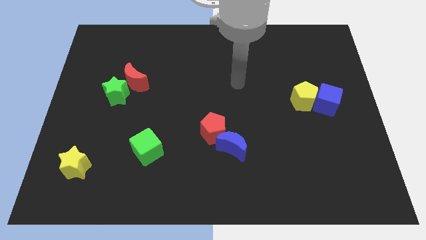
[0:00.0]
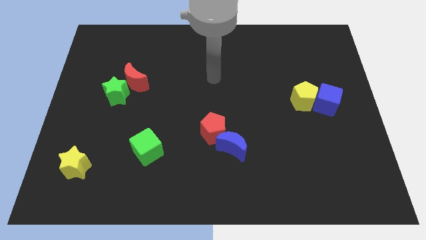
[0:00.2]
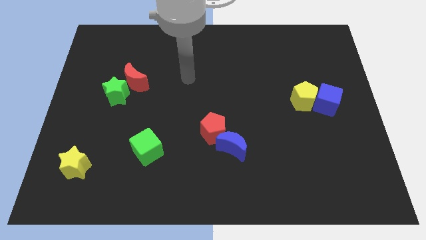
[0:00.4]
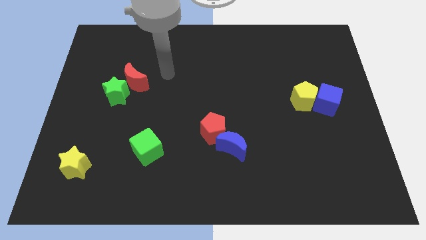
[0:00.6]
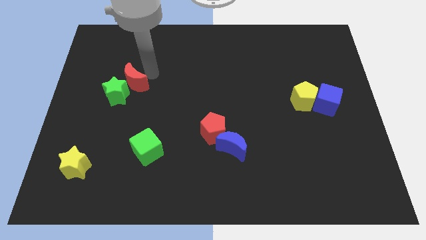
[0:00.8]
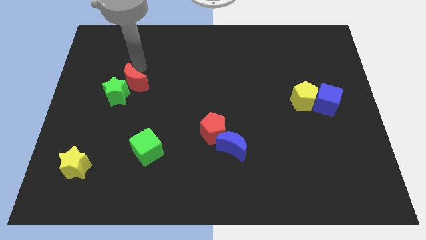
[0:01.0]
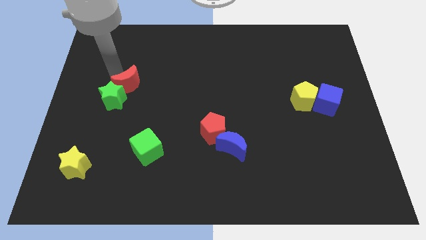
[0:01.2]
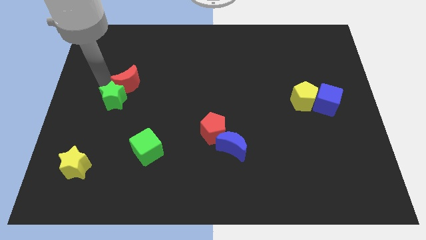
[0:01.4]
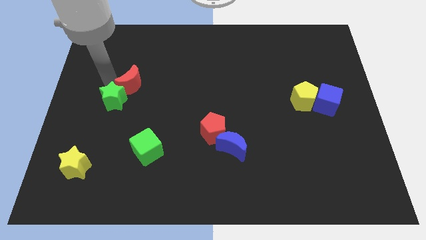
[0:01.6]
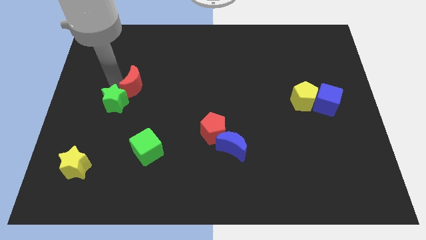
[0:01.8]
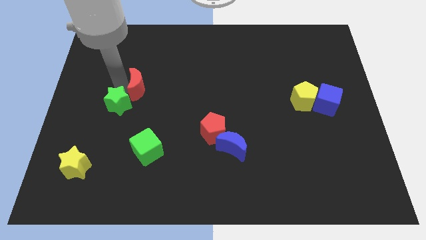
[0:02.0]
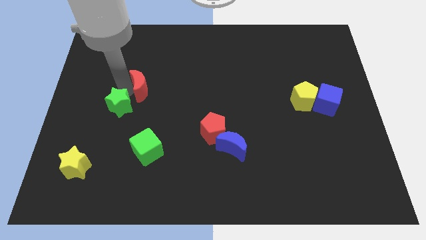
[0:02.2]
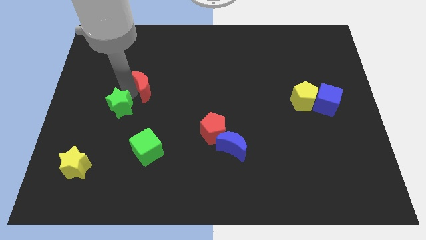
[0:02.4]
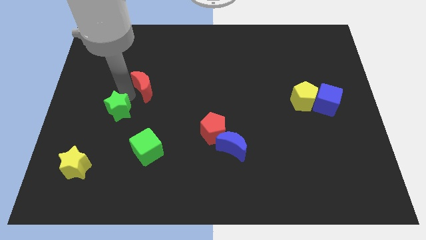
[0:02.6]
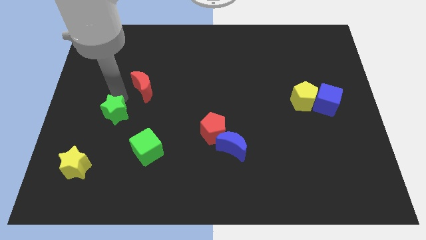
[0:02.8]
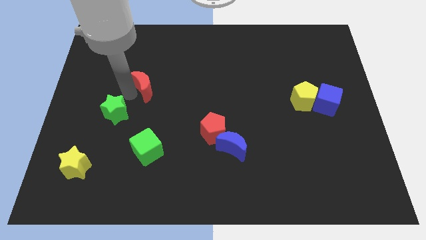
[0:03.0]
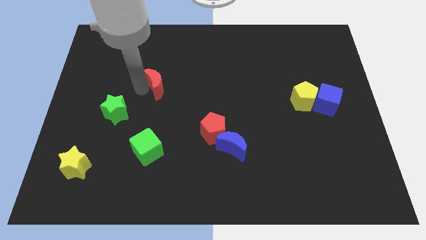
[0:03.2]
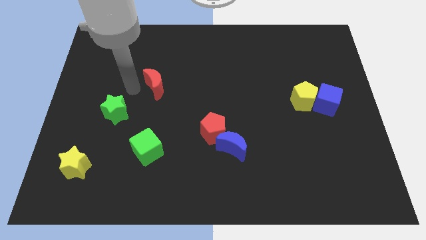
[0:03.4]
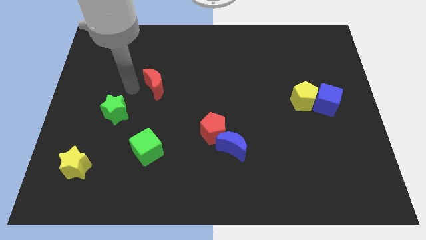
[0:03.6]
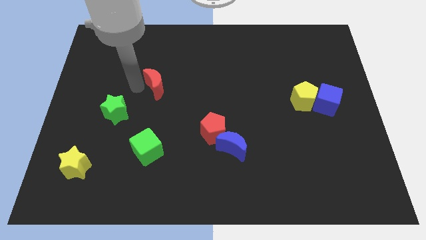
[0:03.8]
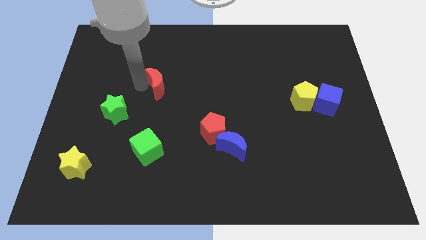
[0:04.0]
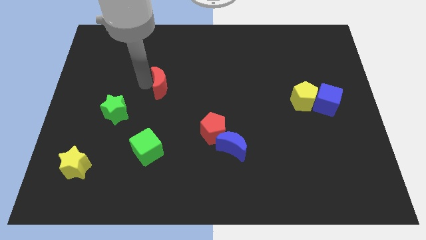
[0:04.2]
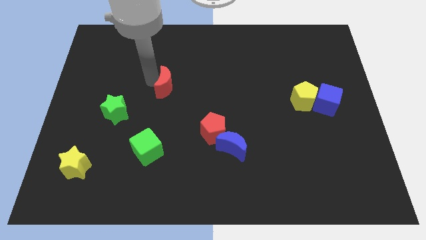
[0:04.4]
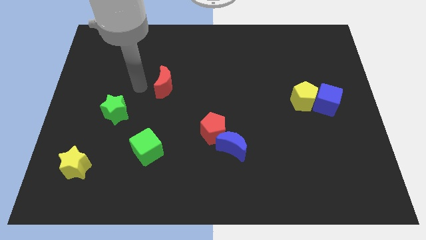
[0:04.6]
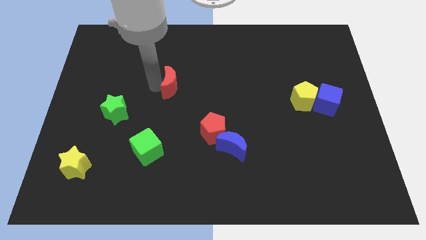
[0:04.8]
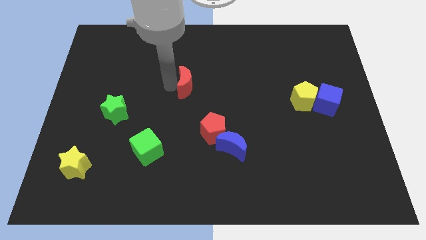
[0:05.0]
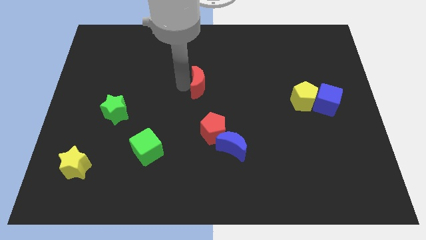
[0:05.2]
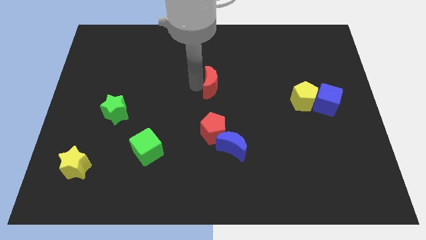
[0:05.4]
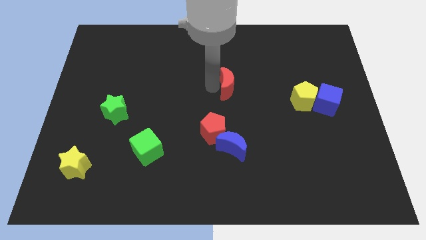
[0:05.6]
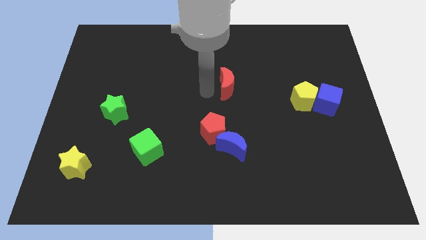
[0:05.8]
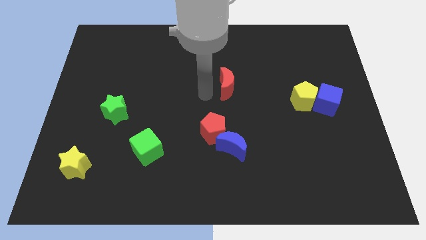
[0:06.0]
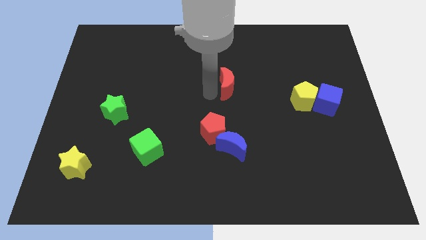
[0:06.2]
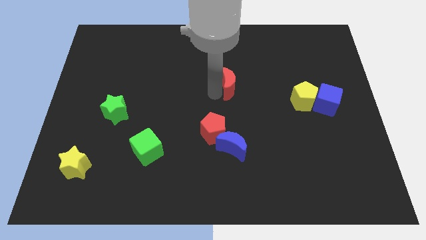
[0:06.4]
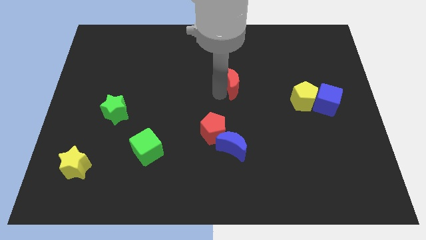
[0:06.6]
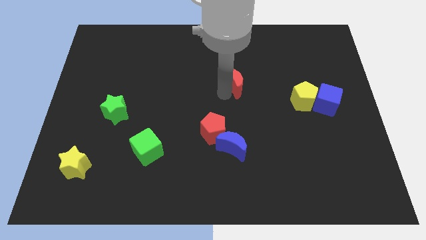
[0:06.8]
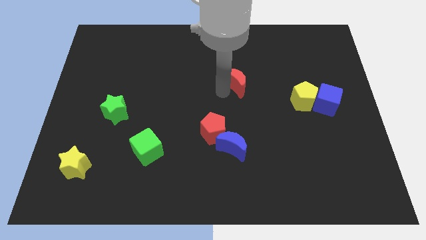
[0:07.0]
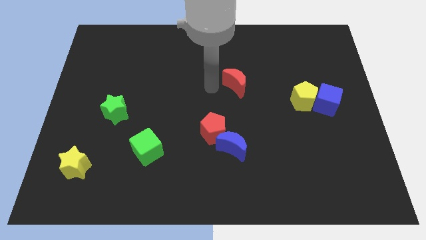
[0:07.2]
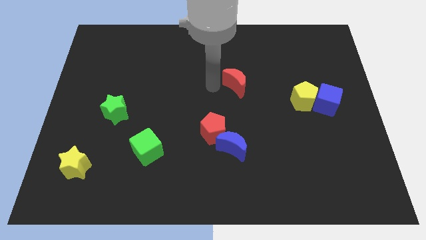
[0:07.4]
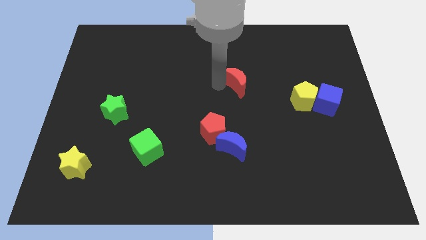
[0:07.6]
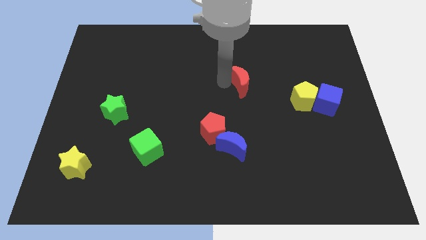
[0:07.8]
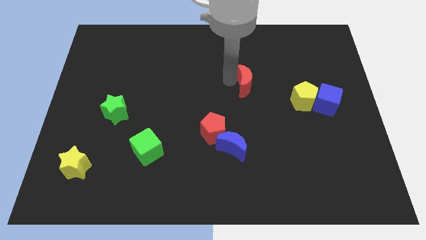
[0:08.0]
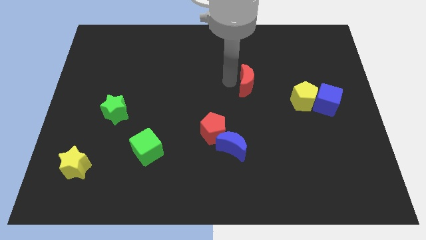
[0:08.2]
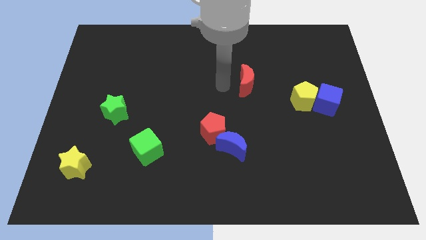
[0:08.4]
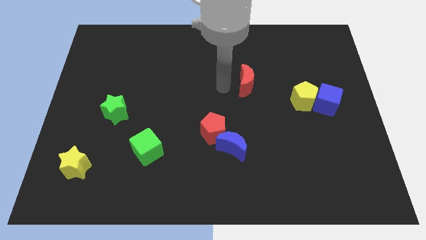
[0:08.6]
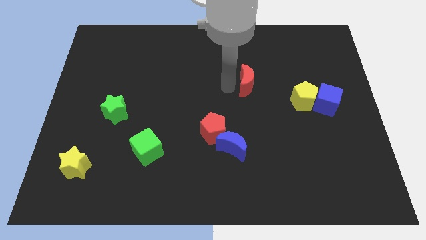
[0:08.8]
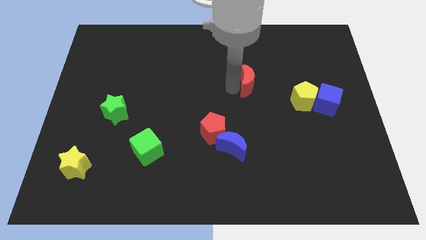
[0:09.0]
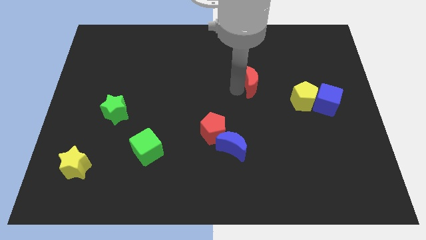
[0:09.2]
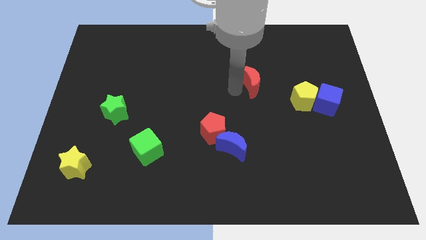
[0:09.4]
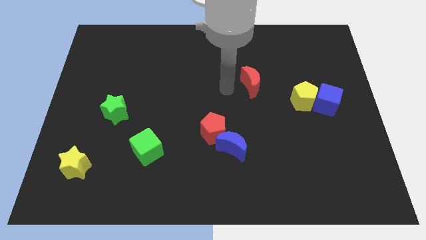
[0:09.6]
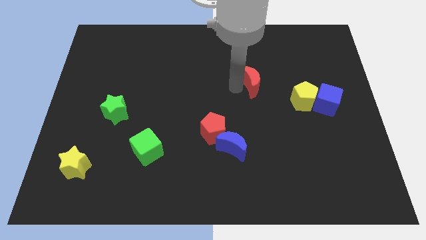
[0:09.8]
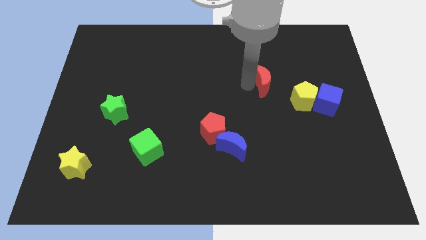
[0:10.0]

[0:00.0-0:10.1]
put the red moon to the top left side of the yellow pentagon

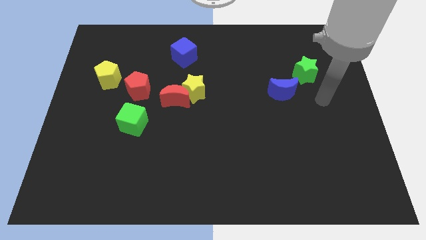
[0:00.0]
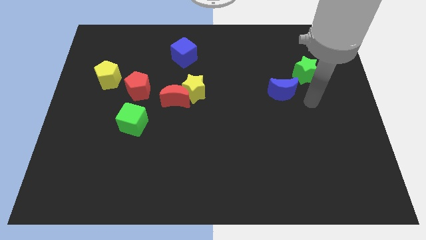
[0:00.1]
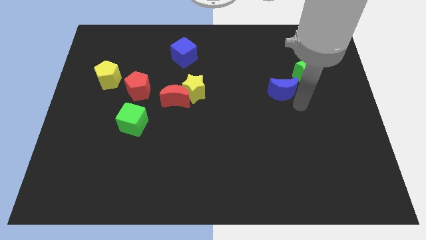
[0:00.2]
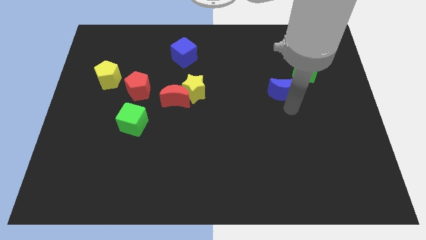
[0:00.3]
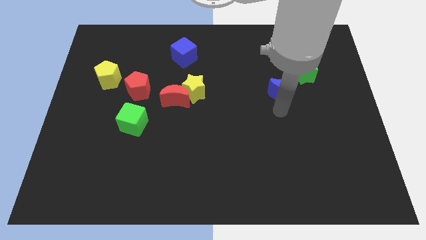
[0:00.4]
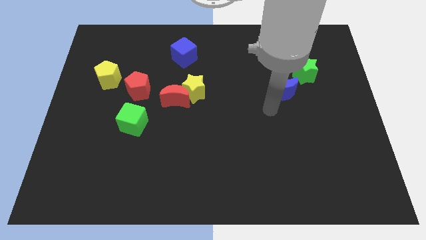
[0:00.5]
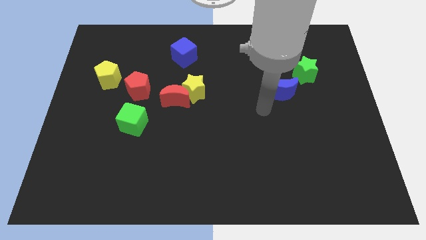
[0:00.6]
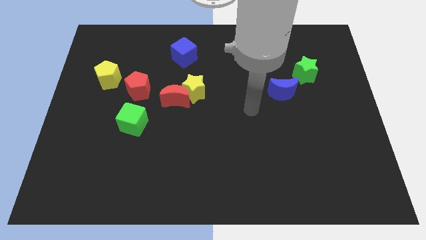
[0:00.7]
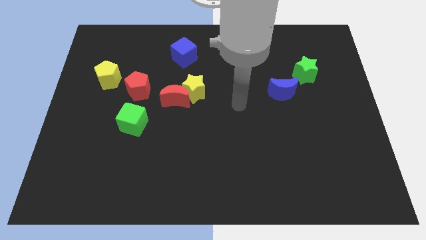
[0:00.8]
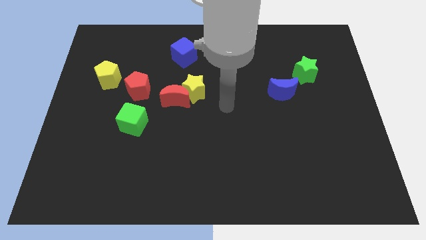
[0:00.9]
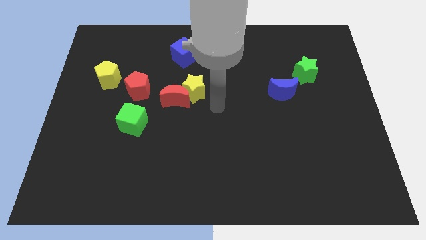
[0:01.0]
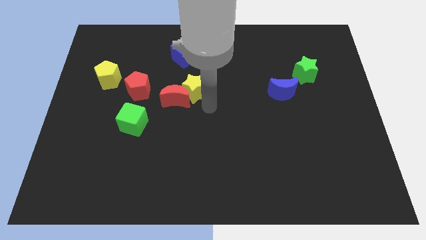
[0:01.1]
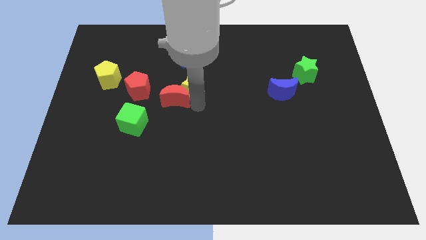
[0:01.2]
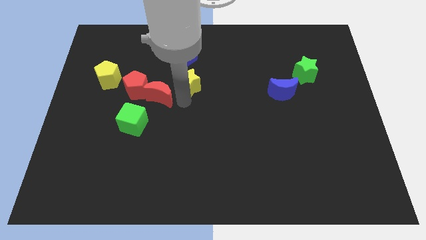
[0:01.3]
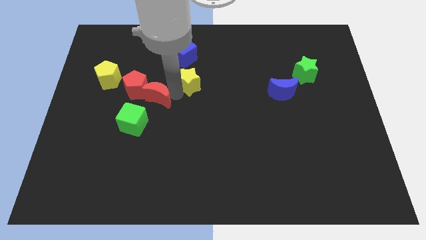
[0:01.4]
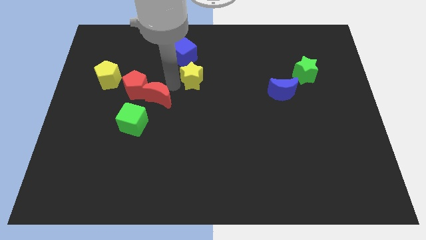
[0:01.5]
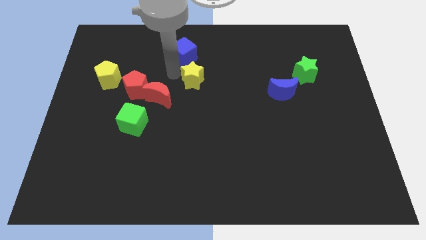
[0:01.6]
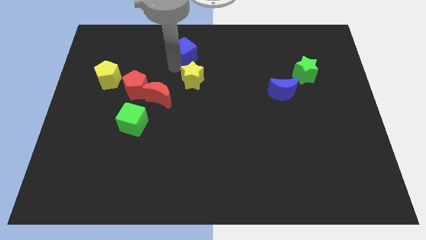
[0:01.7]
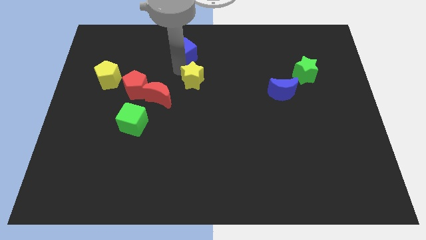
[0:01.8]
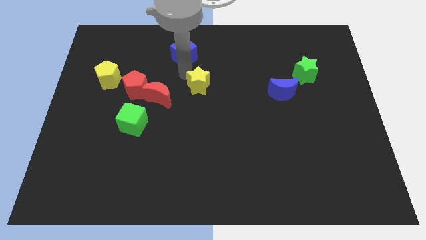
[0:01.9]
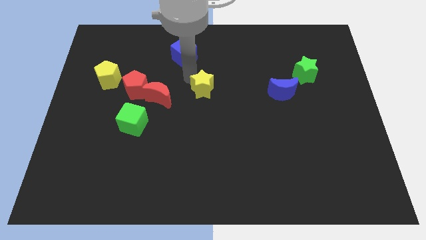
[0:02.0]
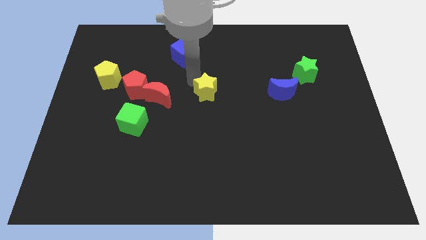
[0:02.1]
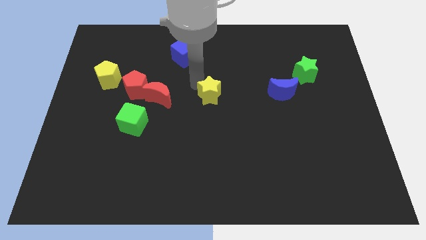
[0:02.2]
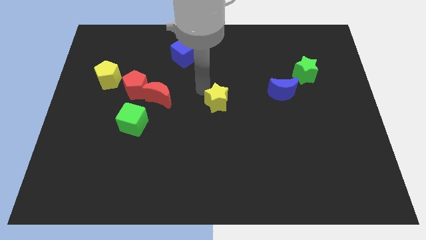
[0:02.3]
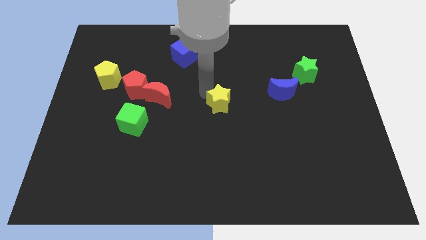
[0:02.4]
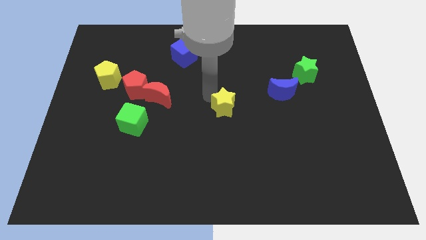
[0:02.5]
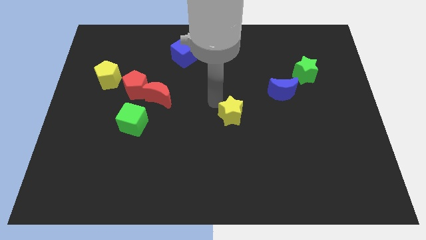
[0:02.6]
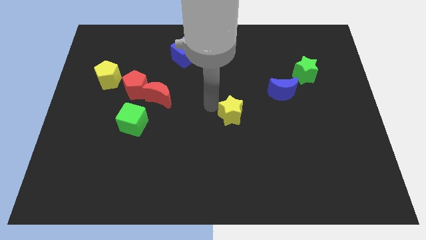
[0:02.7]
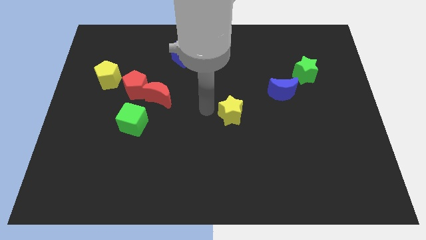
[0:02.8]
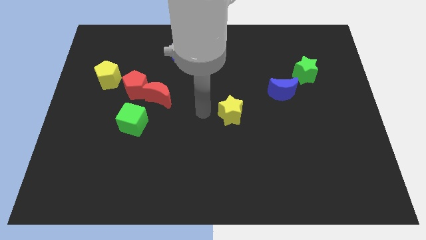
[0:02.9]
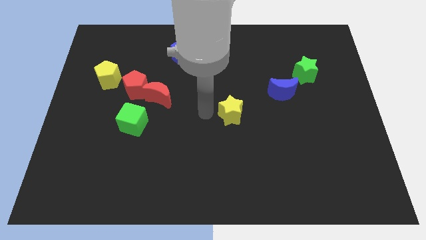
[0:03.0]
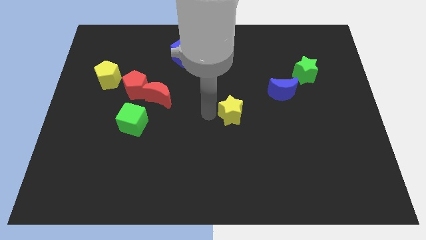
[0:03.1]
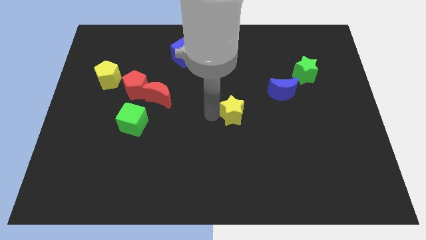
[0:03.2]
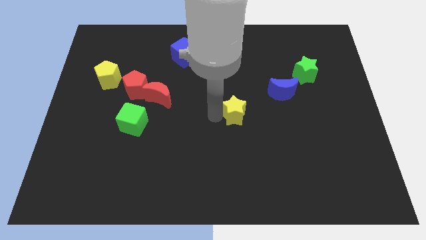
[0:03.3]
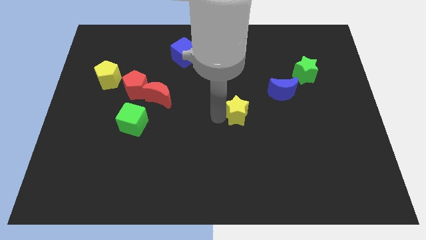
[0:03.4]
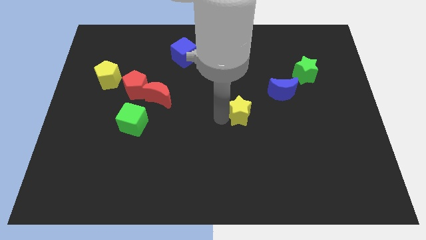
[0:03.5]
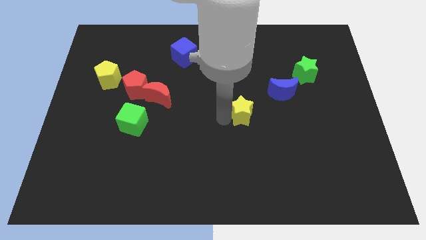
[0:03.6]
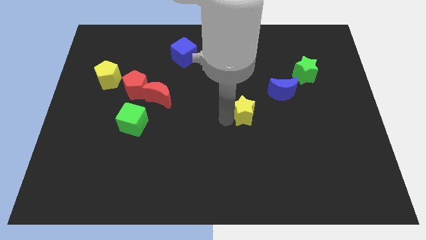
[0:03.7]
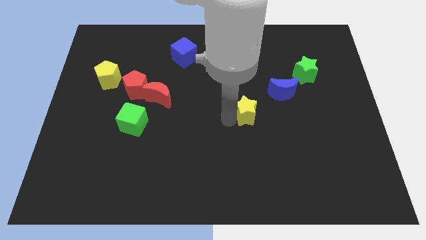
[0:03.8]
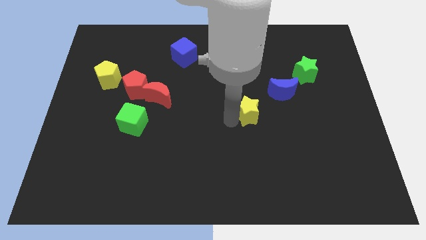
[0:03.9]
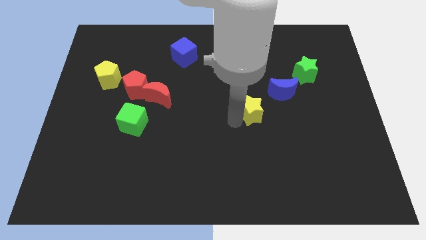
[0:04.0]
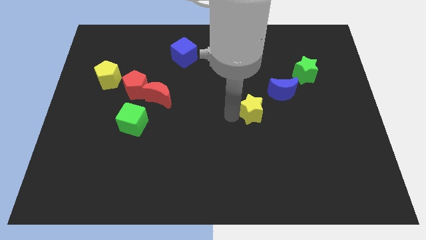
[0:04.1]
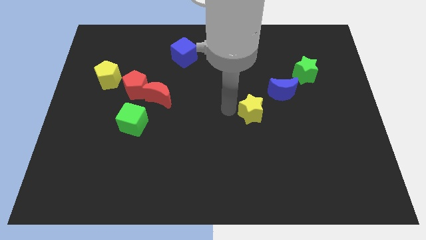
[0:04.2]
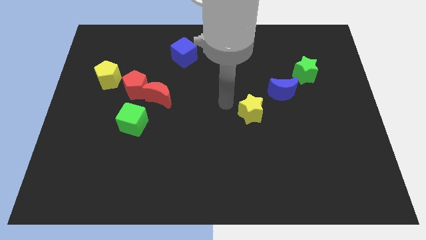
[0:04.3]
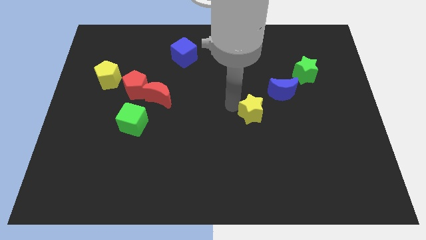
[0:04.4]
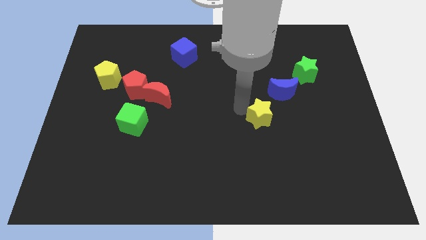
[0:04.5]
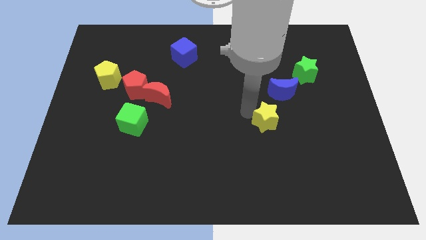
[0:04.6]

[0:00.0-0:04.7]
slide the yellow star below the blue moon
